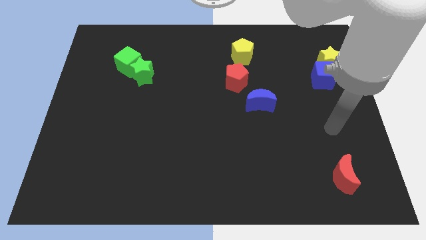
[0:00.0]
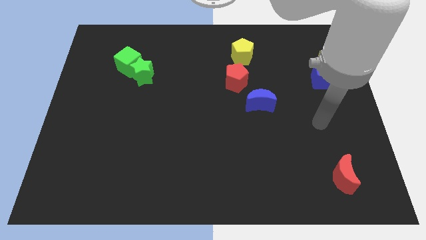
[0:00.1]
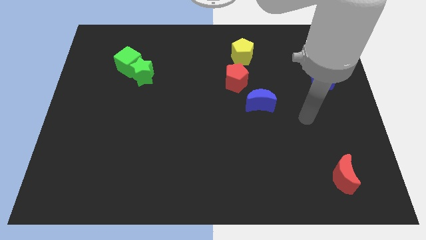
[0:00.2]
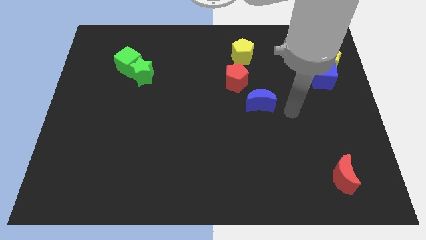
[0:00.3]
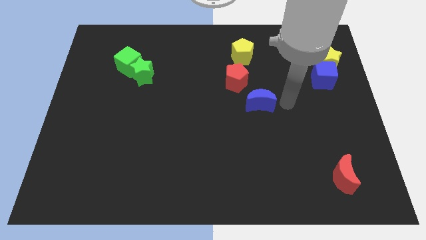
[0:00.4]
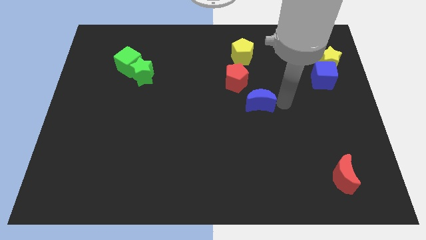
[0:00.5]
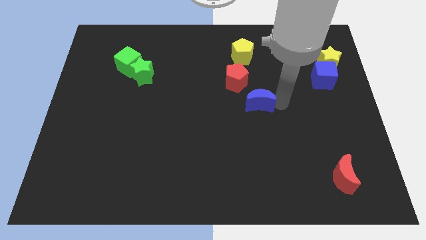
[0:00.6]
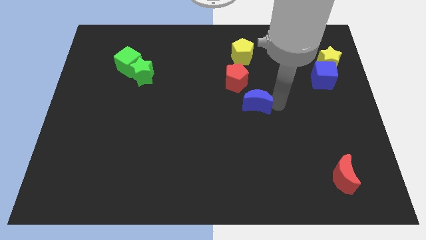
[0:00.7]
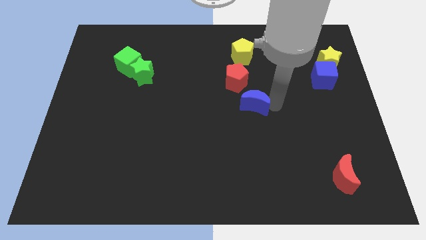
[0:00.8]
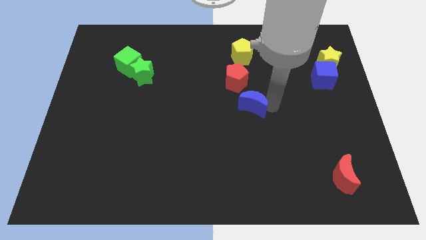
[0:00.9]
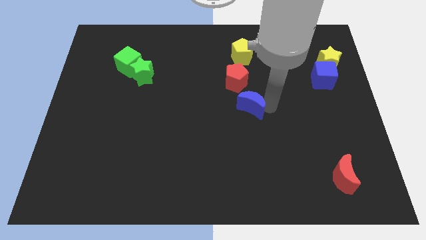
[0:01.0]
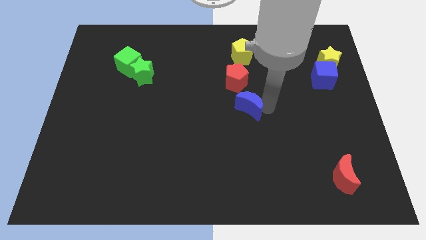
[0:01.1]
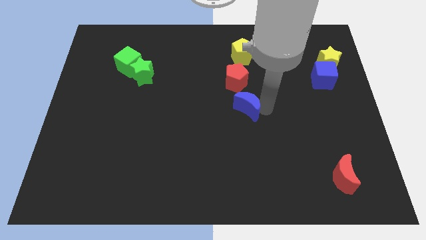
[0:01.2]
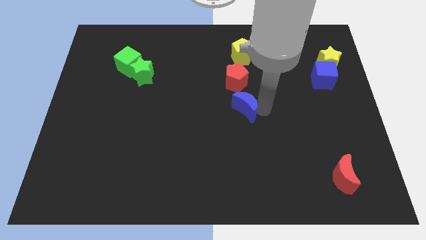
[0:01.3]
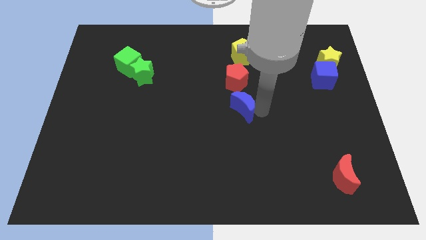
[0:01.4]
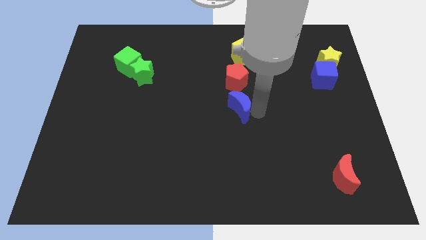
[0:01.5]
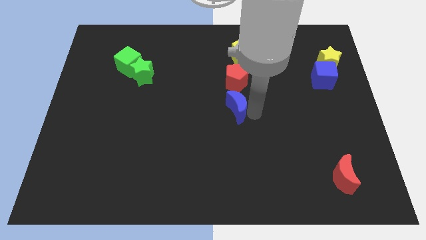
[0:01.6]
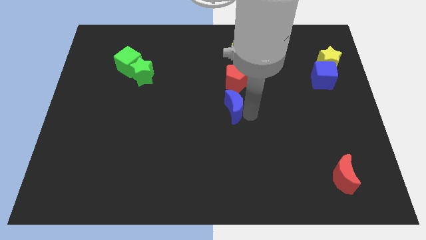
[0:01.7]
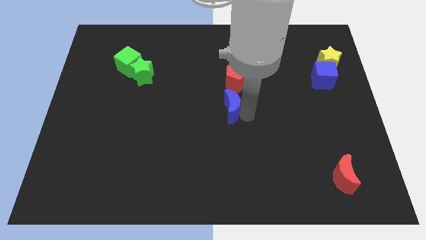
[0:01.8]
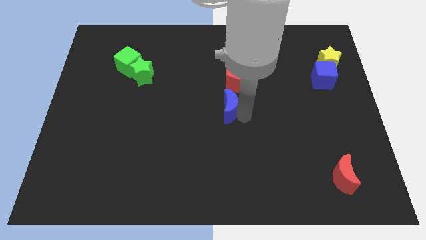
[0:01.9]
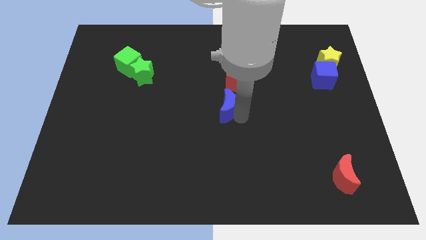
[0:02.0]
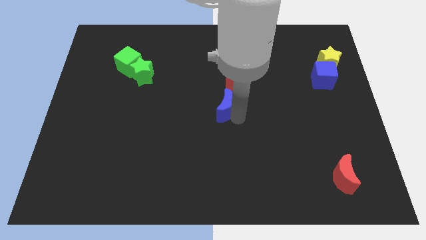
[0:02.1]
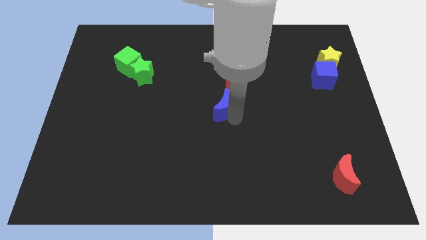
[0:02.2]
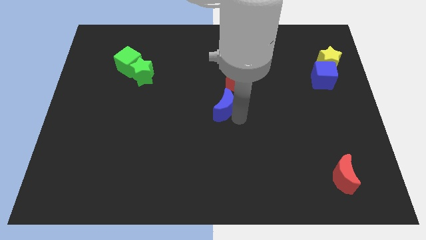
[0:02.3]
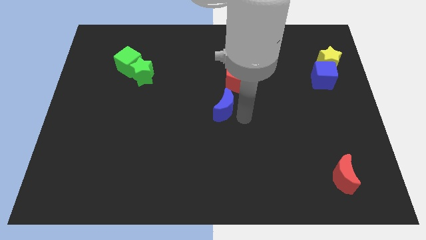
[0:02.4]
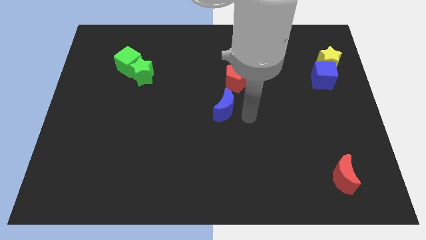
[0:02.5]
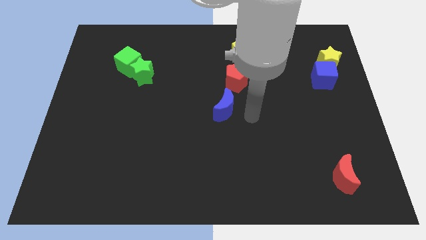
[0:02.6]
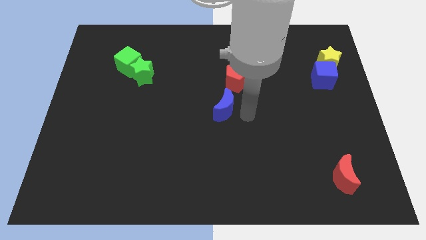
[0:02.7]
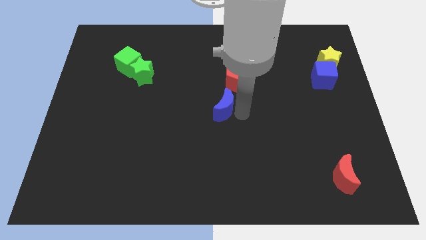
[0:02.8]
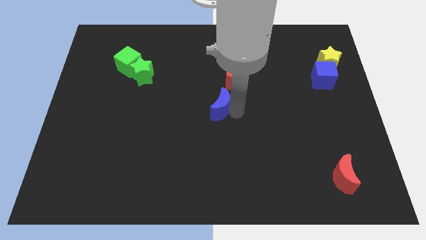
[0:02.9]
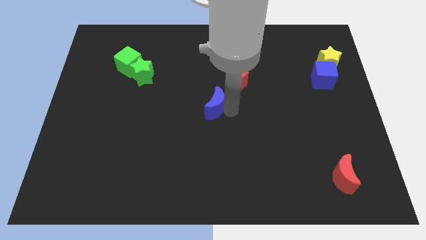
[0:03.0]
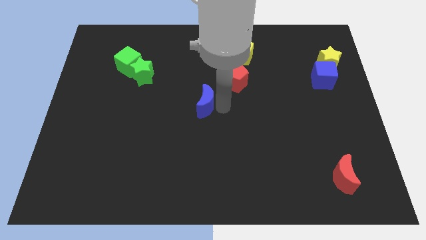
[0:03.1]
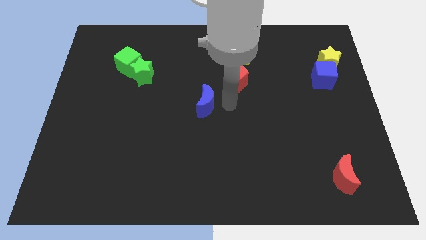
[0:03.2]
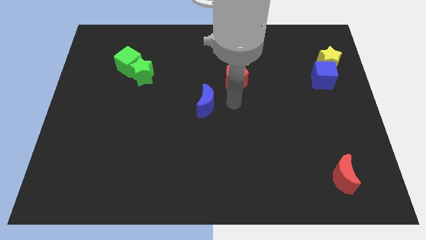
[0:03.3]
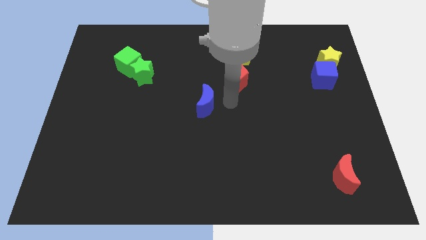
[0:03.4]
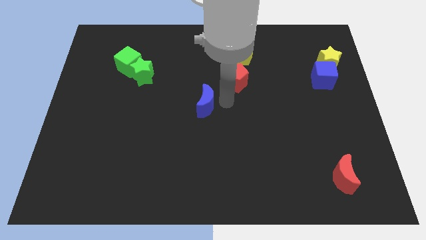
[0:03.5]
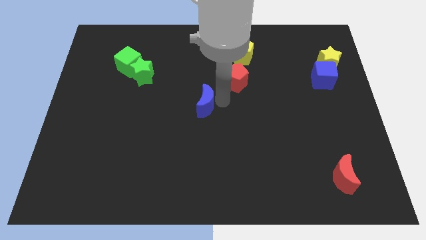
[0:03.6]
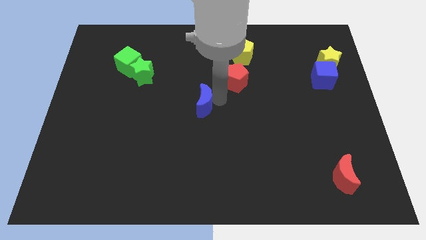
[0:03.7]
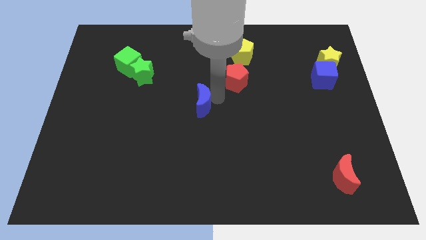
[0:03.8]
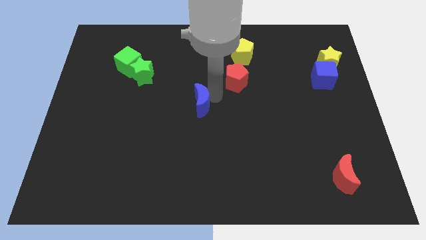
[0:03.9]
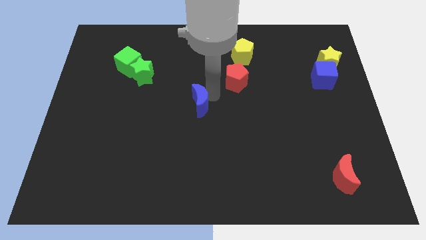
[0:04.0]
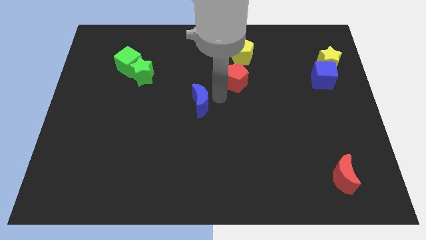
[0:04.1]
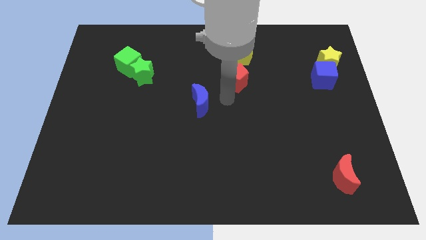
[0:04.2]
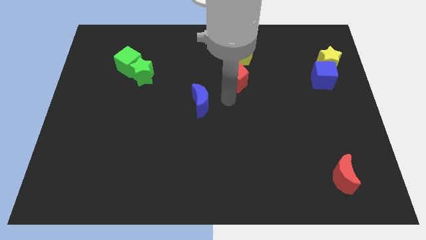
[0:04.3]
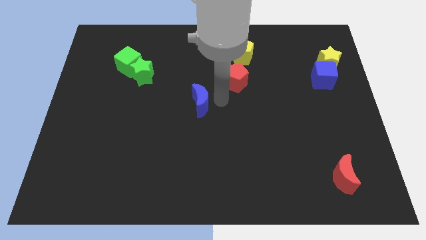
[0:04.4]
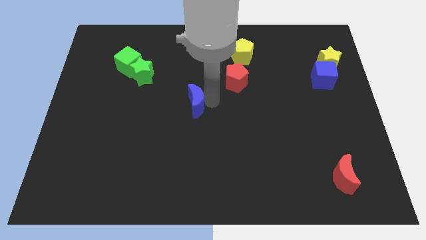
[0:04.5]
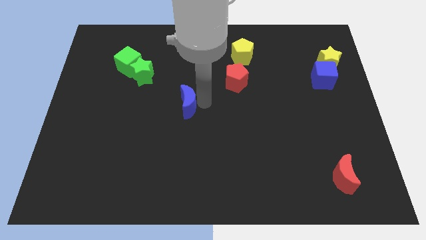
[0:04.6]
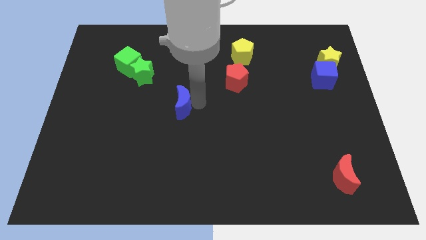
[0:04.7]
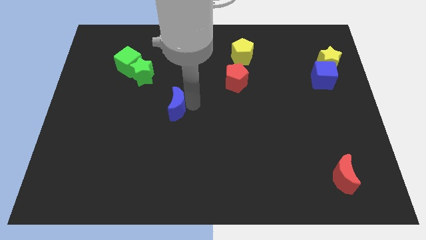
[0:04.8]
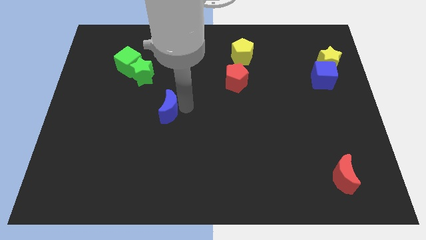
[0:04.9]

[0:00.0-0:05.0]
push the blue moon to the left

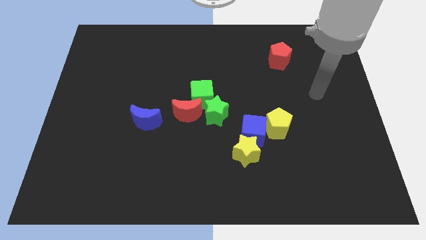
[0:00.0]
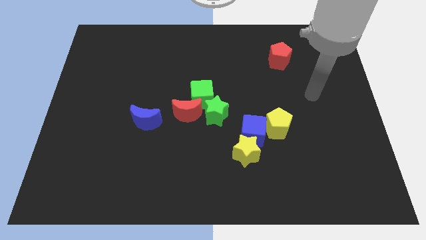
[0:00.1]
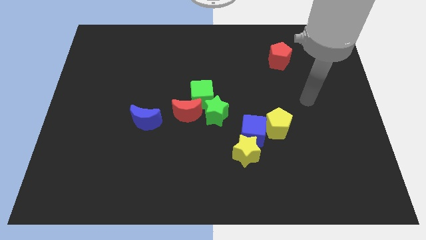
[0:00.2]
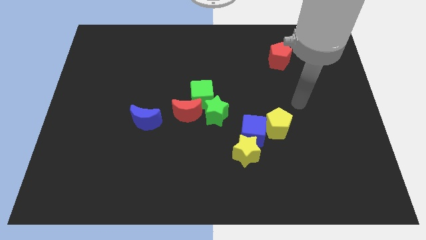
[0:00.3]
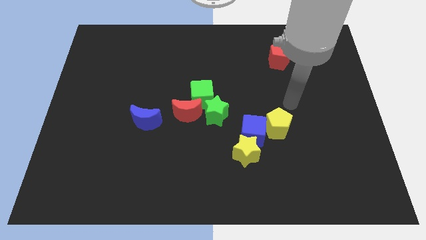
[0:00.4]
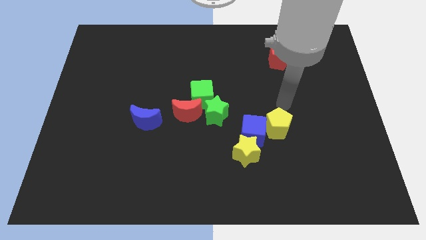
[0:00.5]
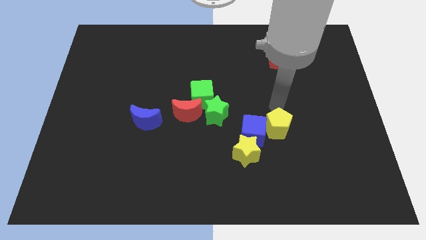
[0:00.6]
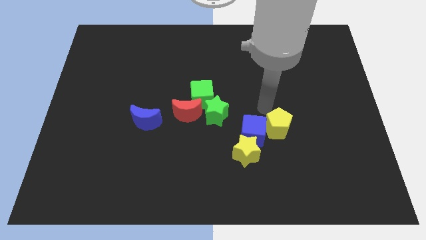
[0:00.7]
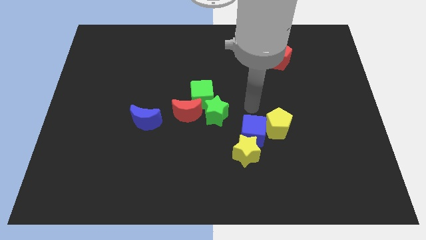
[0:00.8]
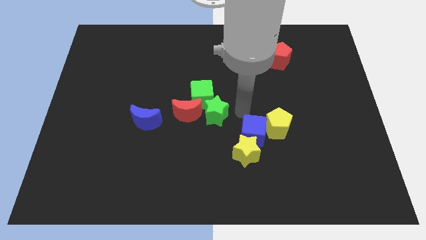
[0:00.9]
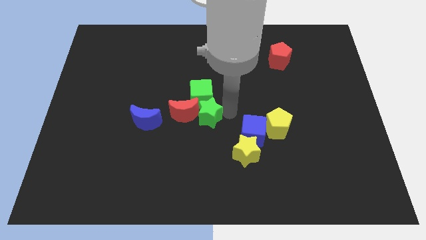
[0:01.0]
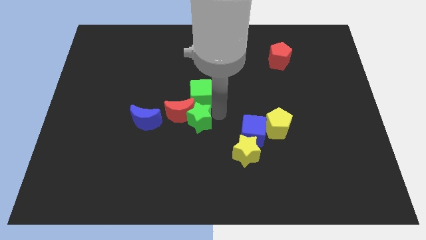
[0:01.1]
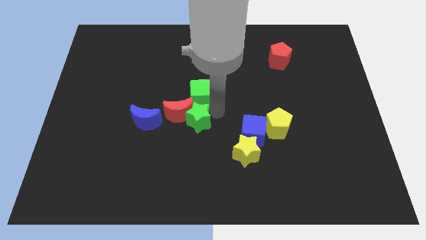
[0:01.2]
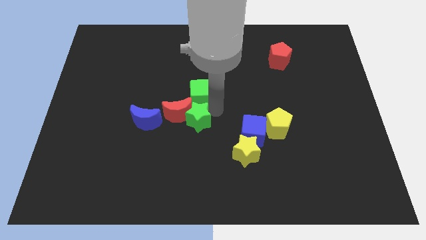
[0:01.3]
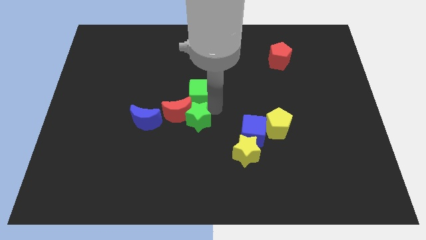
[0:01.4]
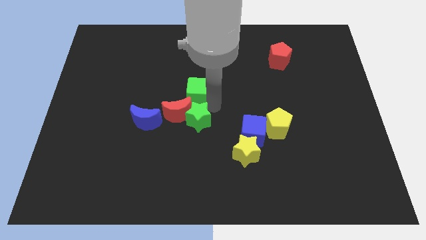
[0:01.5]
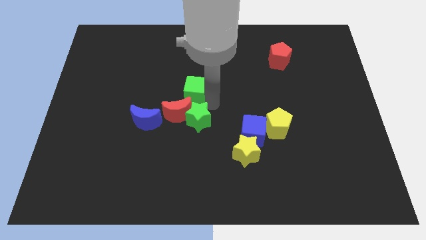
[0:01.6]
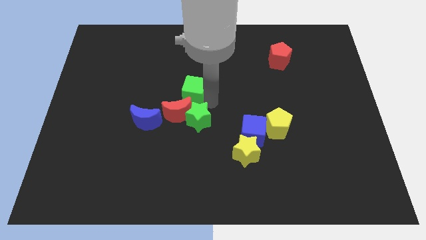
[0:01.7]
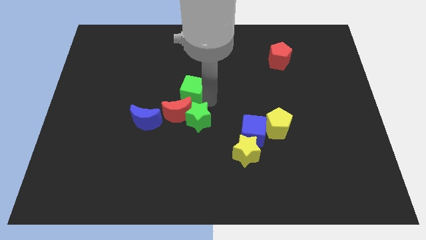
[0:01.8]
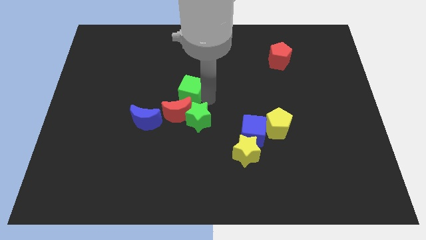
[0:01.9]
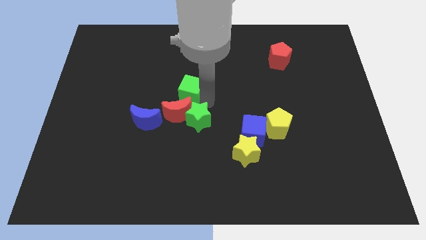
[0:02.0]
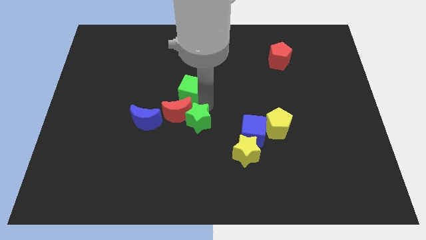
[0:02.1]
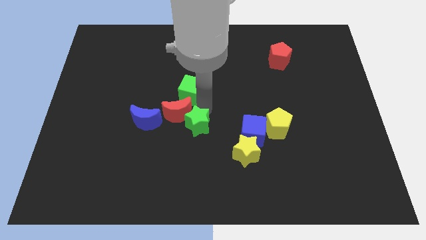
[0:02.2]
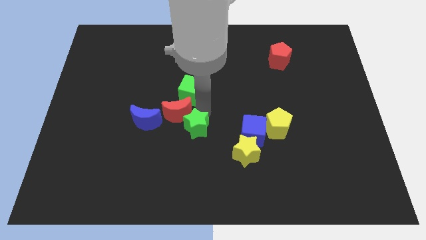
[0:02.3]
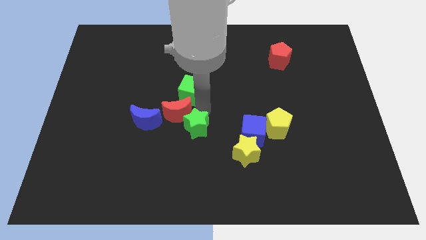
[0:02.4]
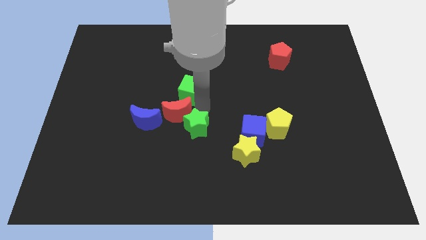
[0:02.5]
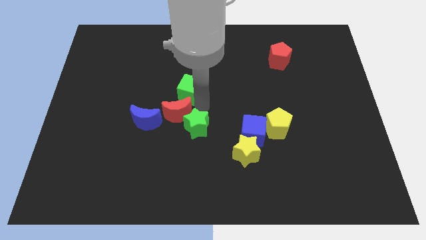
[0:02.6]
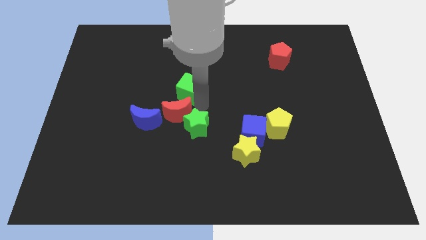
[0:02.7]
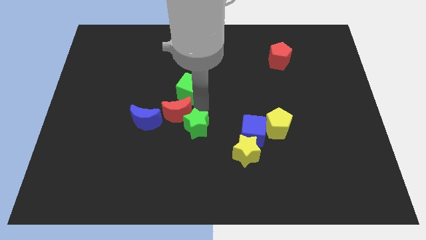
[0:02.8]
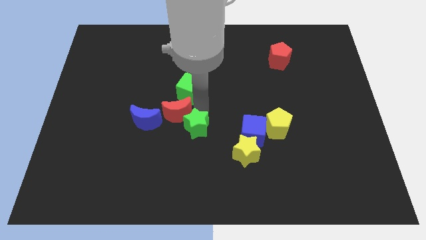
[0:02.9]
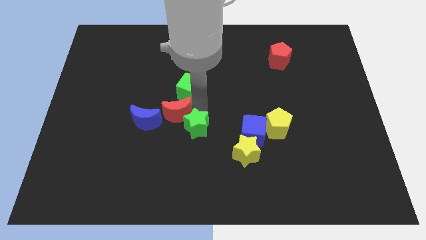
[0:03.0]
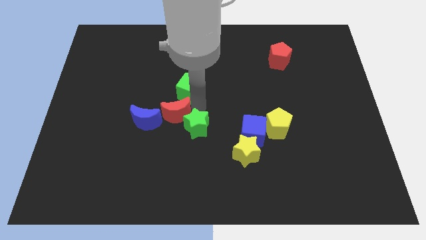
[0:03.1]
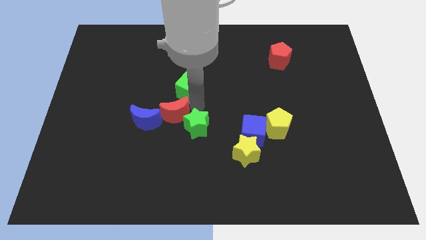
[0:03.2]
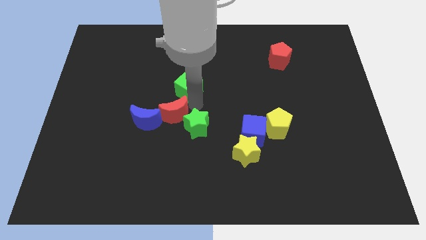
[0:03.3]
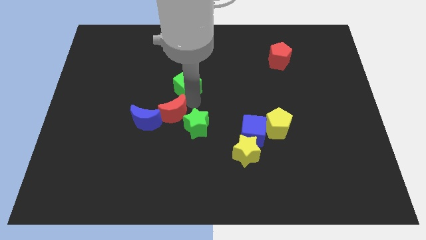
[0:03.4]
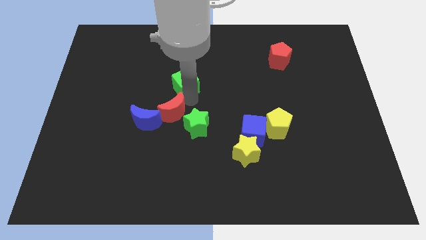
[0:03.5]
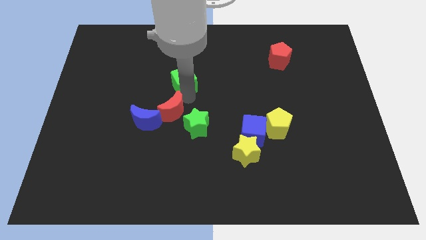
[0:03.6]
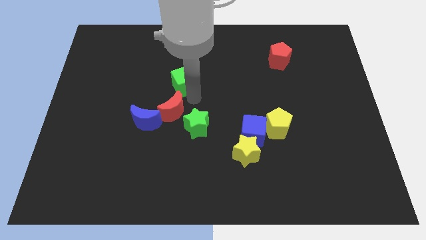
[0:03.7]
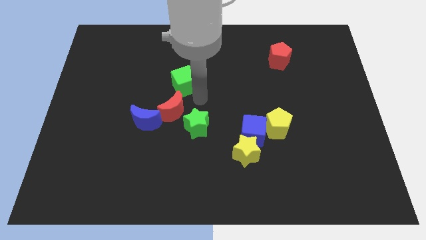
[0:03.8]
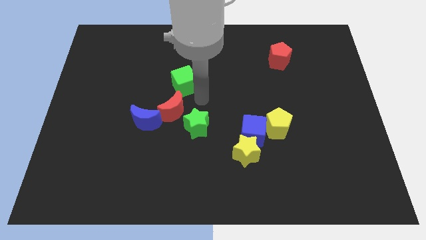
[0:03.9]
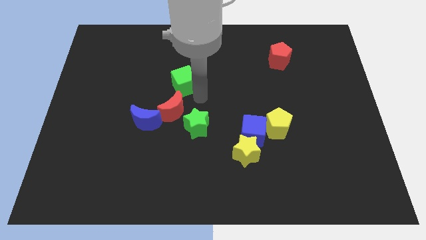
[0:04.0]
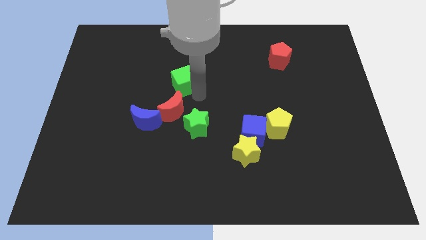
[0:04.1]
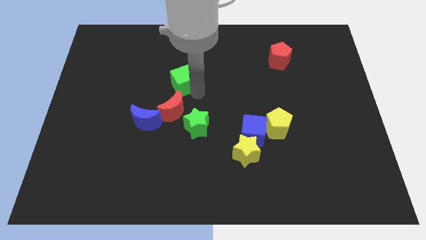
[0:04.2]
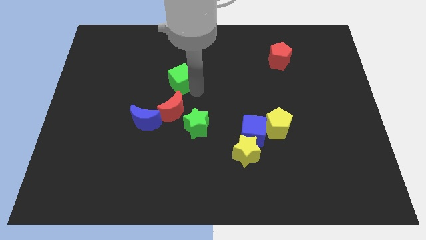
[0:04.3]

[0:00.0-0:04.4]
push the green cube somewhat up and to the left diagonally
